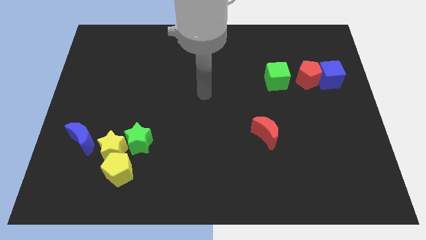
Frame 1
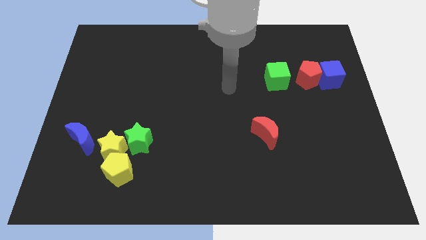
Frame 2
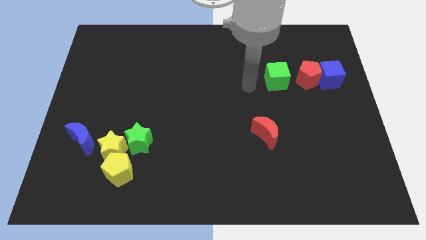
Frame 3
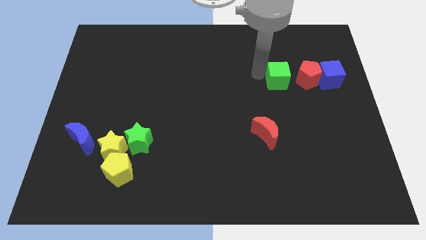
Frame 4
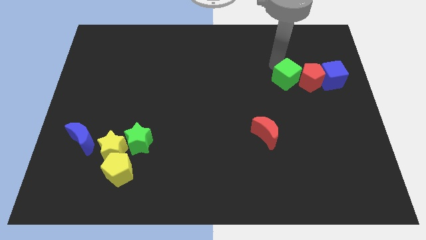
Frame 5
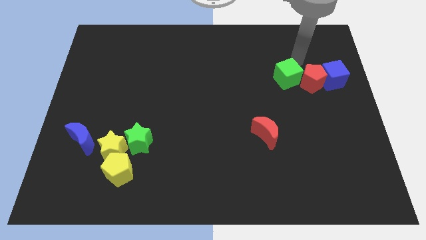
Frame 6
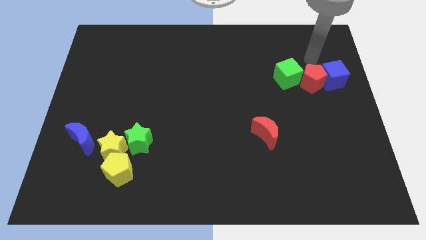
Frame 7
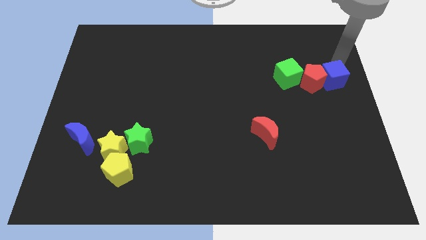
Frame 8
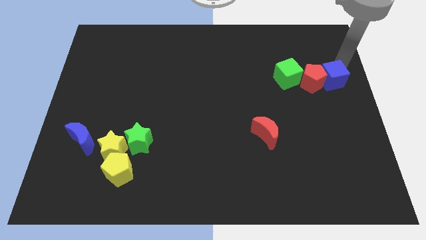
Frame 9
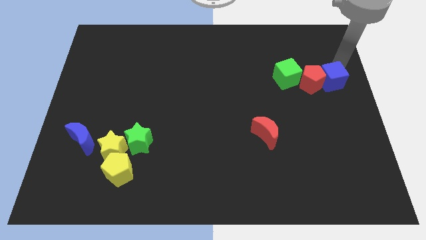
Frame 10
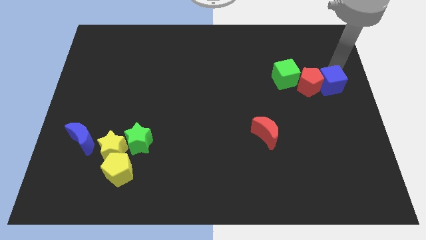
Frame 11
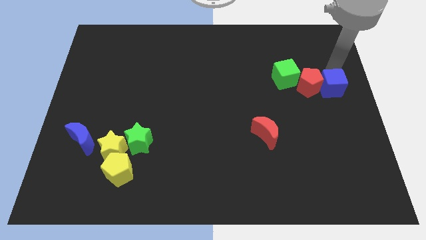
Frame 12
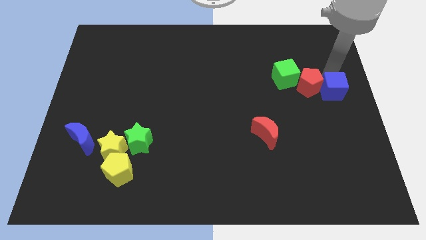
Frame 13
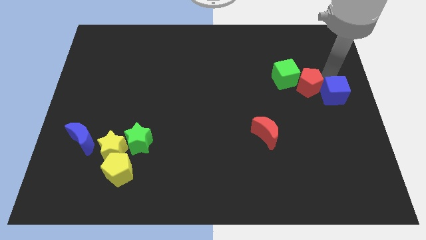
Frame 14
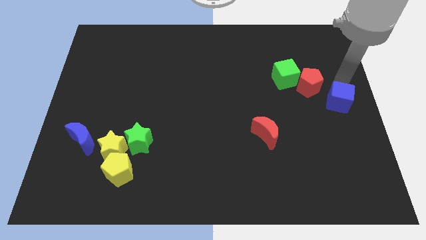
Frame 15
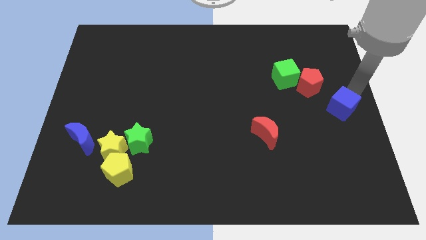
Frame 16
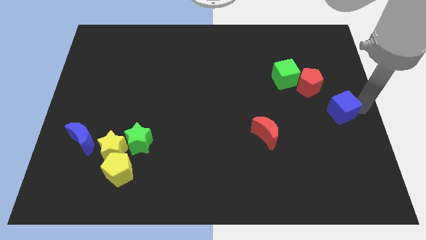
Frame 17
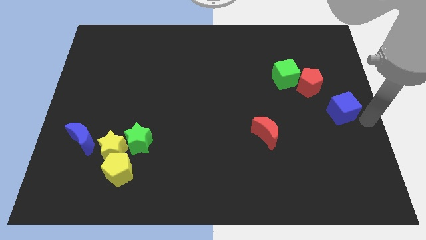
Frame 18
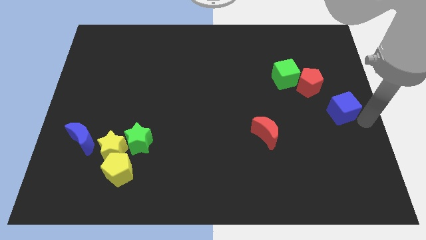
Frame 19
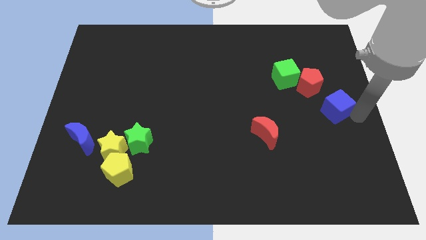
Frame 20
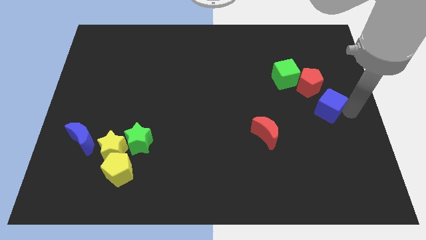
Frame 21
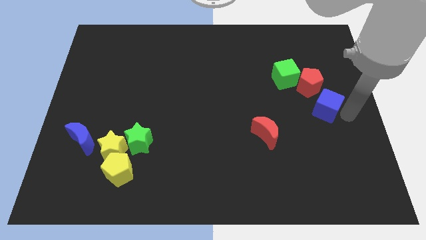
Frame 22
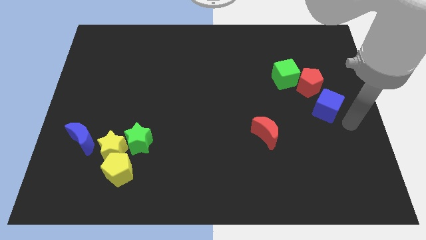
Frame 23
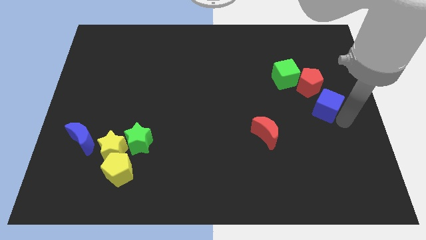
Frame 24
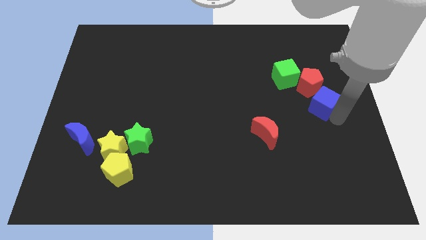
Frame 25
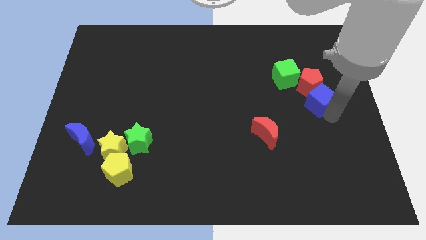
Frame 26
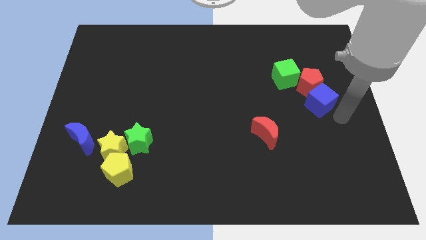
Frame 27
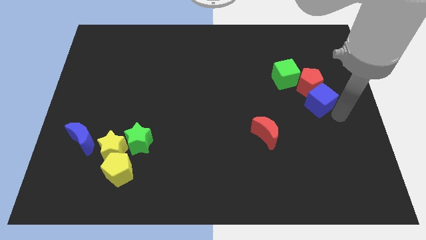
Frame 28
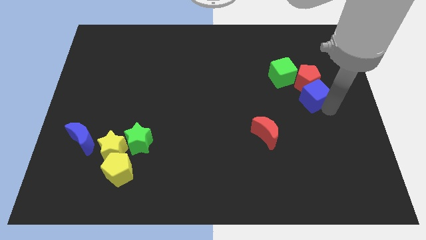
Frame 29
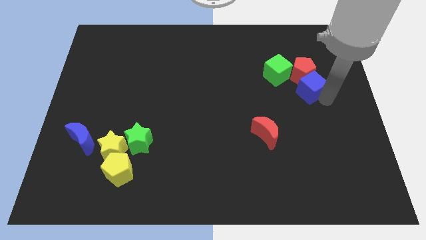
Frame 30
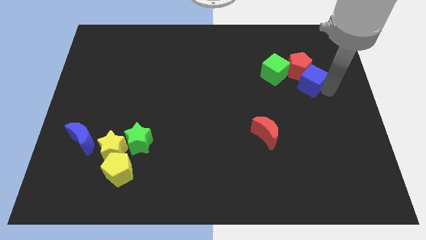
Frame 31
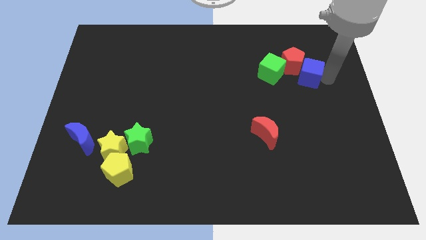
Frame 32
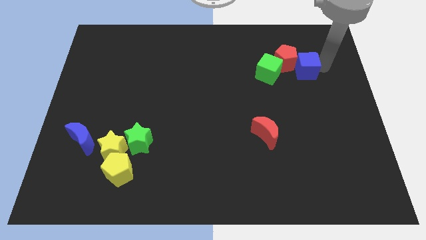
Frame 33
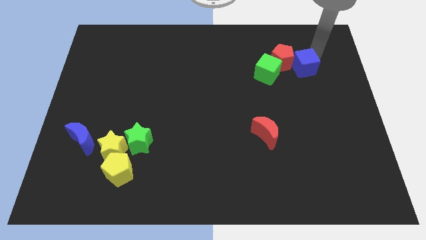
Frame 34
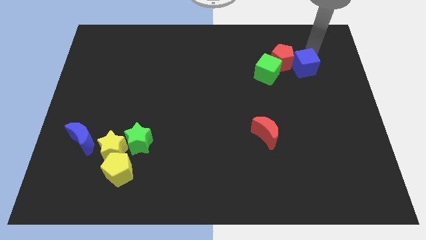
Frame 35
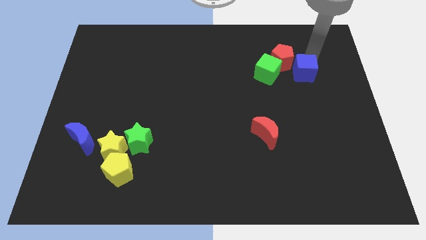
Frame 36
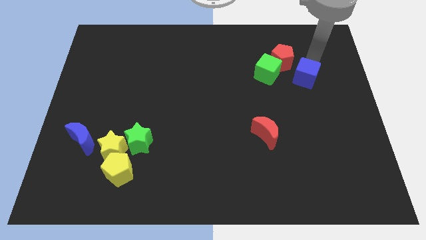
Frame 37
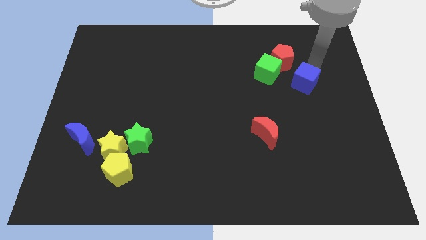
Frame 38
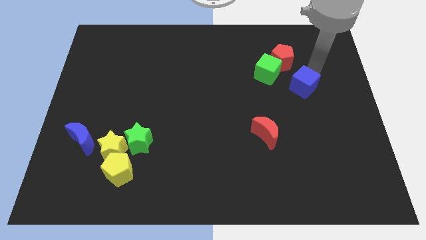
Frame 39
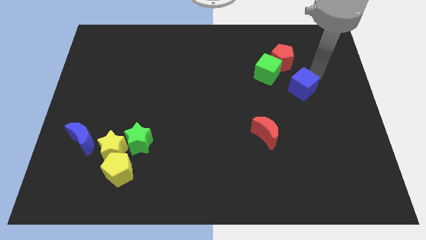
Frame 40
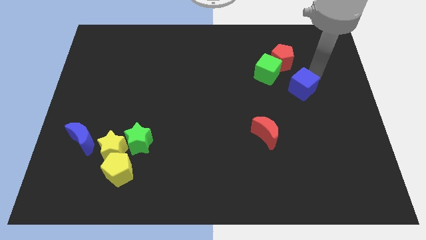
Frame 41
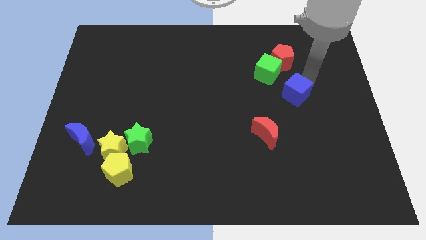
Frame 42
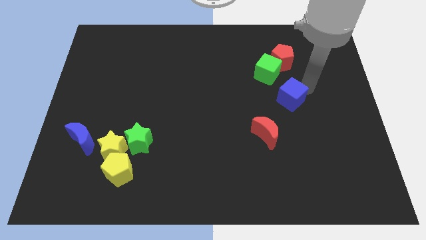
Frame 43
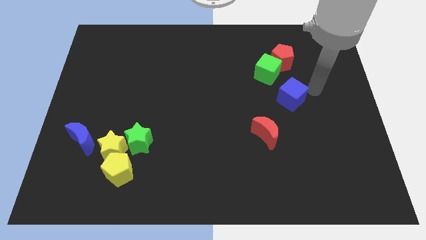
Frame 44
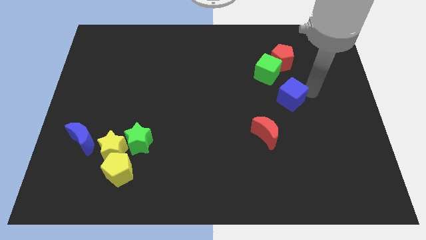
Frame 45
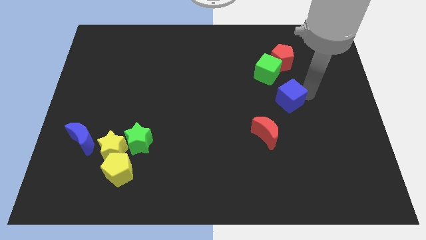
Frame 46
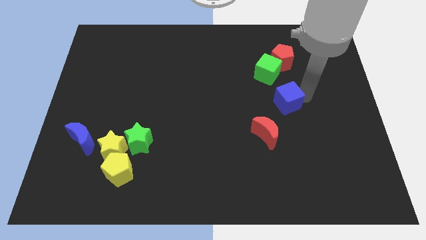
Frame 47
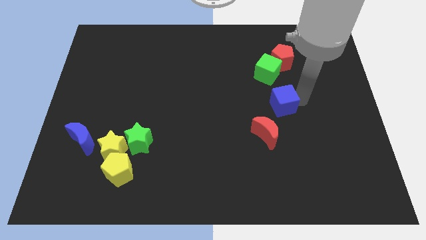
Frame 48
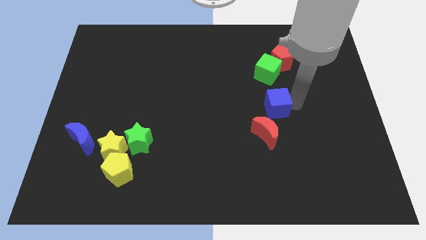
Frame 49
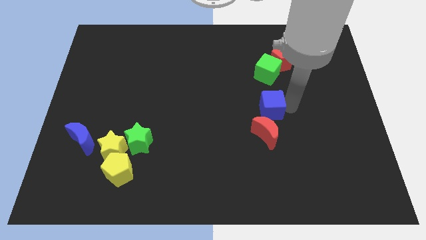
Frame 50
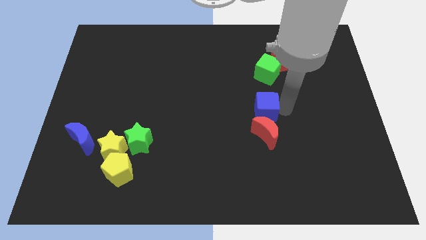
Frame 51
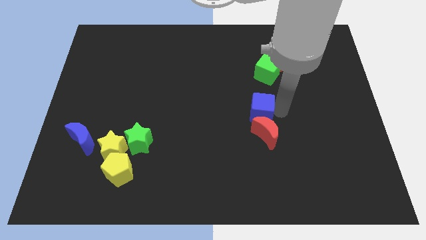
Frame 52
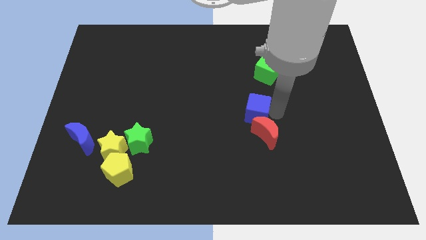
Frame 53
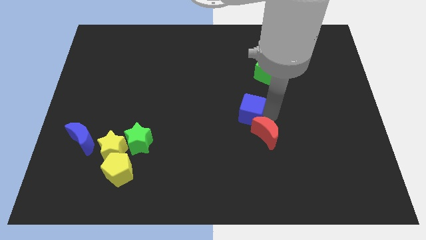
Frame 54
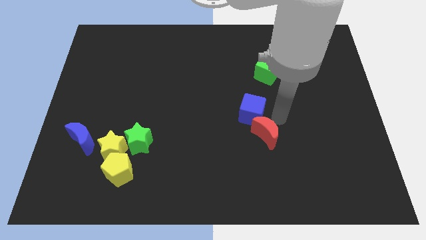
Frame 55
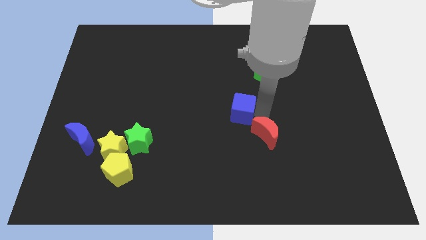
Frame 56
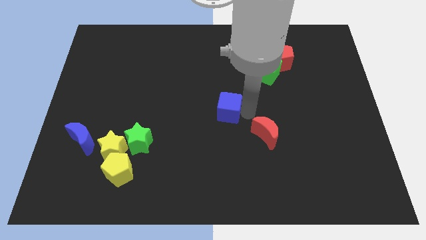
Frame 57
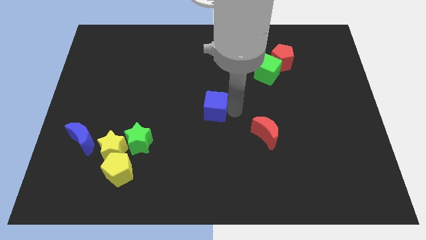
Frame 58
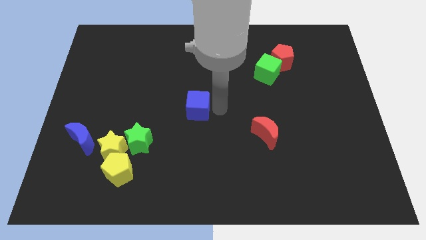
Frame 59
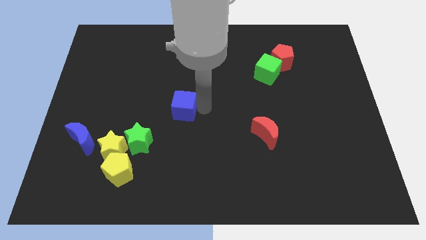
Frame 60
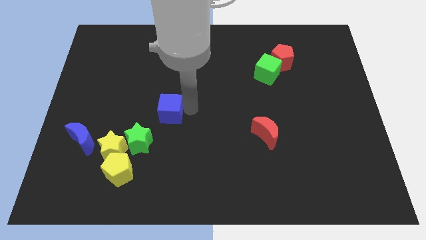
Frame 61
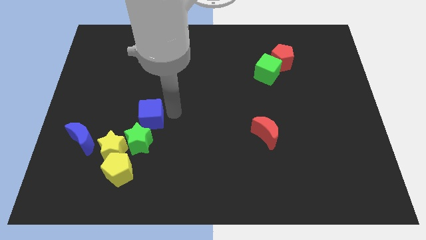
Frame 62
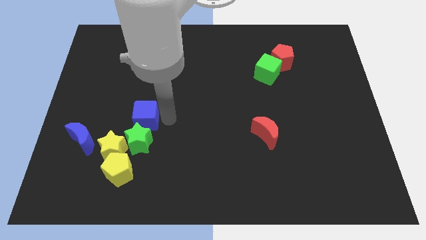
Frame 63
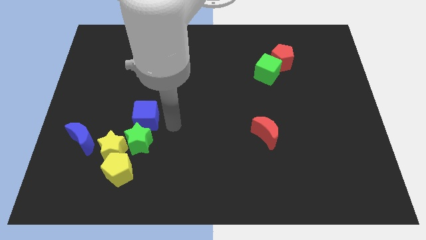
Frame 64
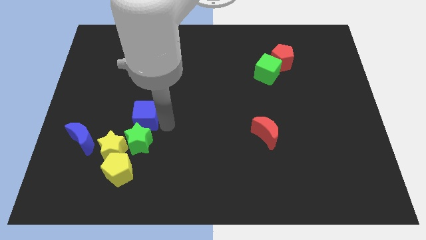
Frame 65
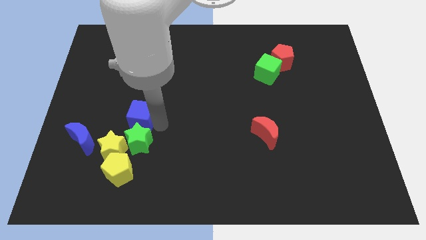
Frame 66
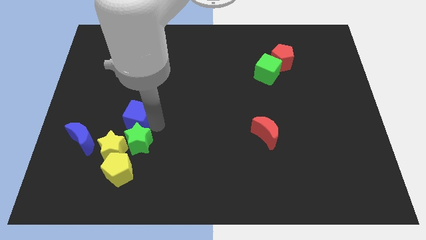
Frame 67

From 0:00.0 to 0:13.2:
slide the blue cube to the top side of the yellow star

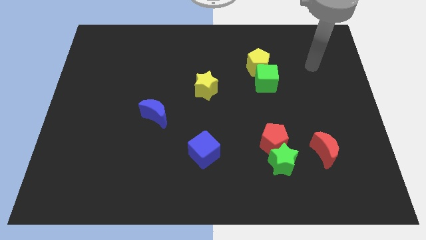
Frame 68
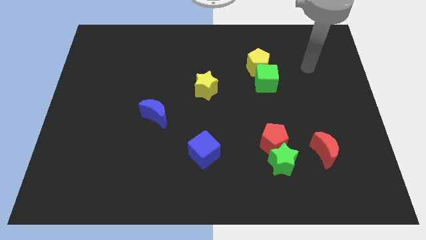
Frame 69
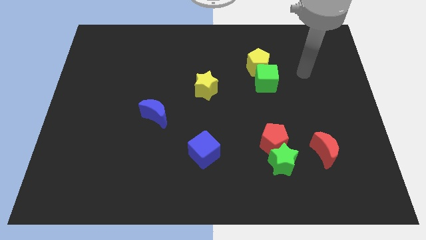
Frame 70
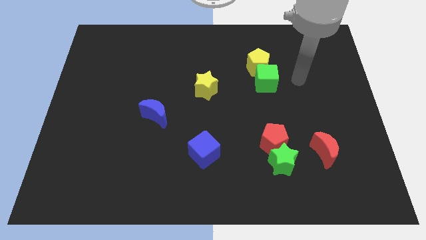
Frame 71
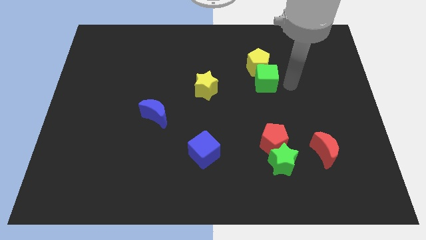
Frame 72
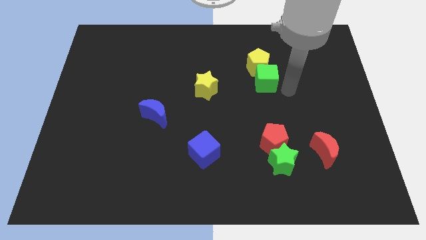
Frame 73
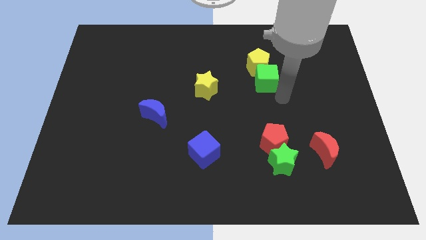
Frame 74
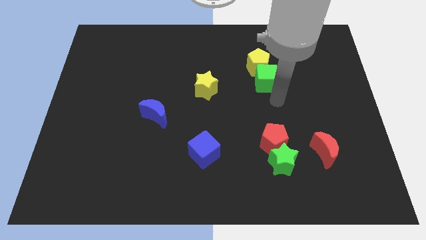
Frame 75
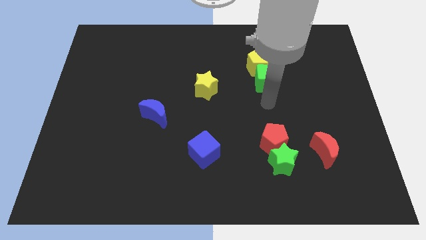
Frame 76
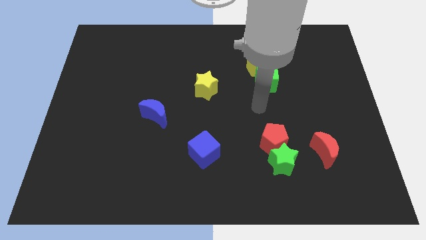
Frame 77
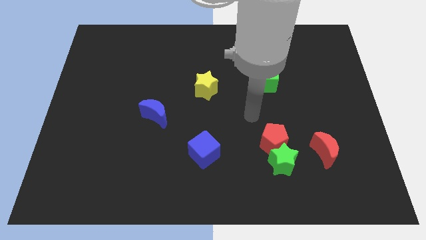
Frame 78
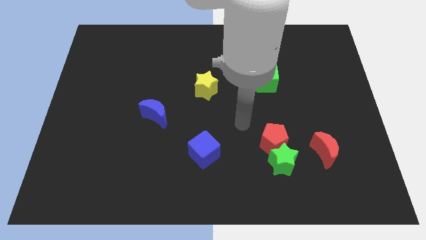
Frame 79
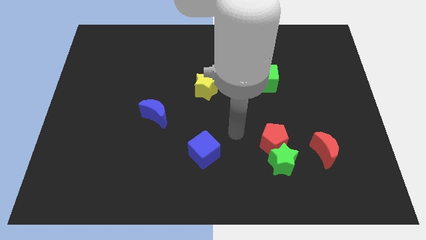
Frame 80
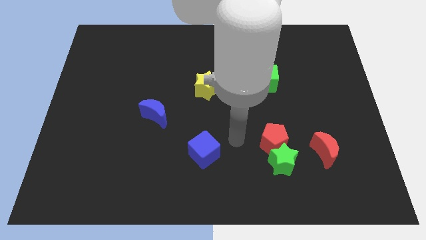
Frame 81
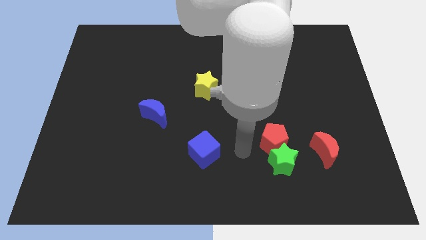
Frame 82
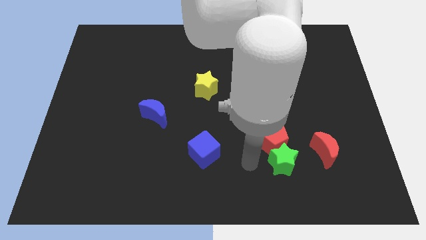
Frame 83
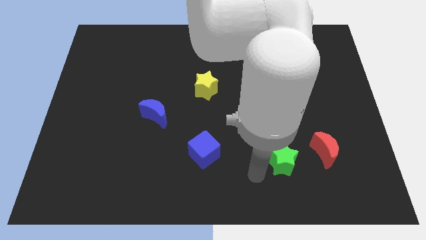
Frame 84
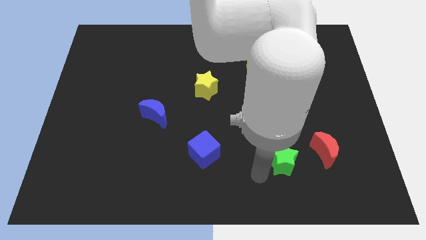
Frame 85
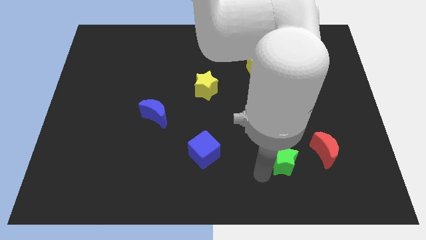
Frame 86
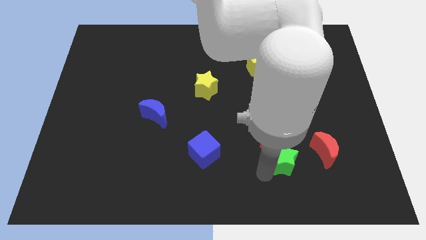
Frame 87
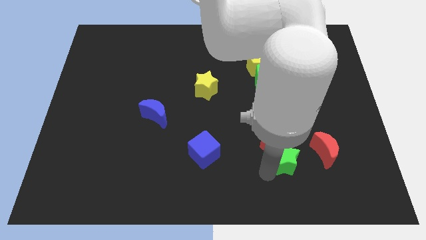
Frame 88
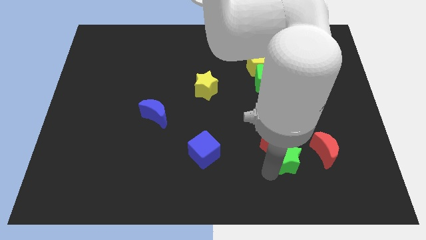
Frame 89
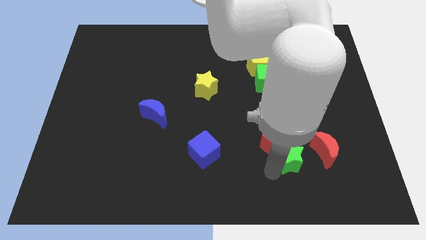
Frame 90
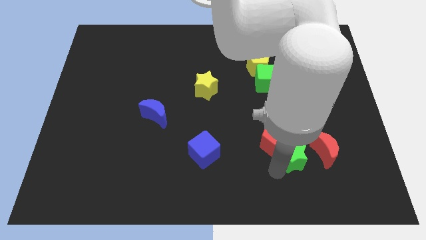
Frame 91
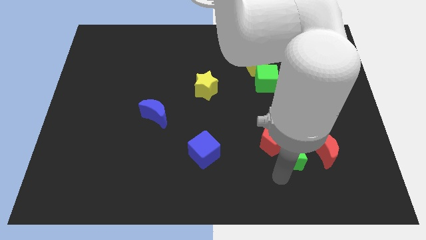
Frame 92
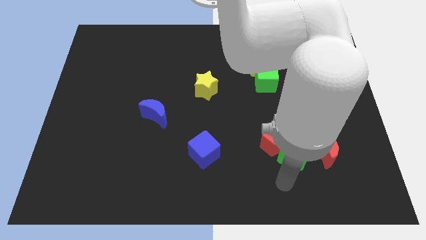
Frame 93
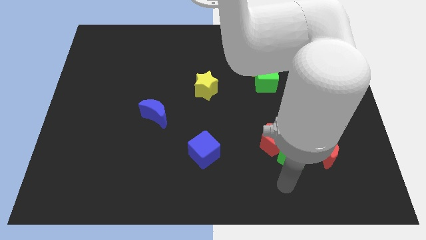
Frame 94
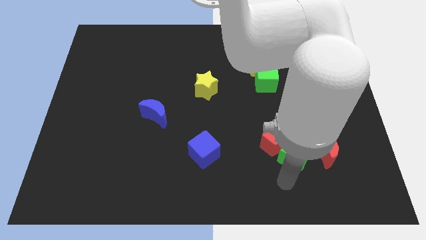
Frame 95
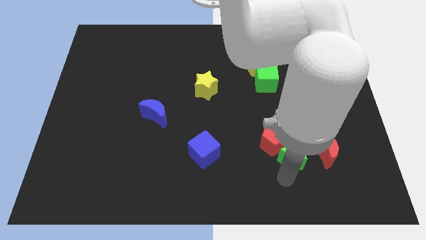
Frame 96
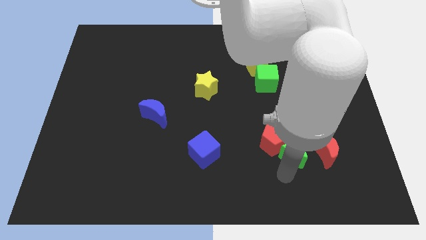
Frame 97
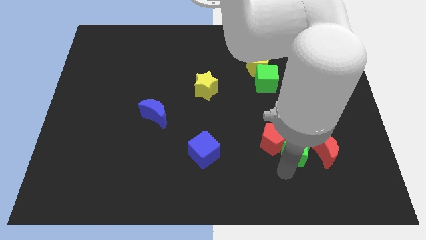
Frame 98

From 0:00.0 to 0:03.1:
move the green star to the top left side of the red moon
